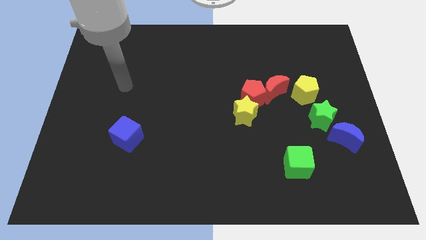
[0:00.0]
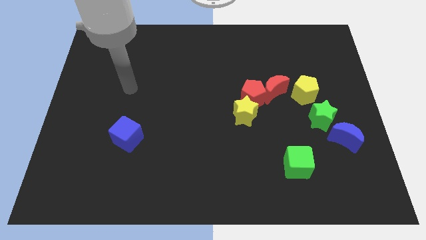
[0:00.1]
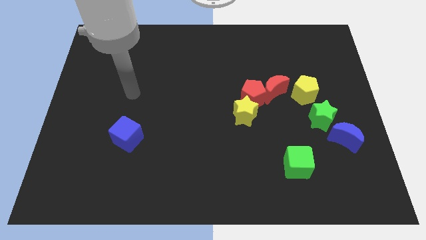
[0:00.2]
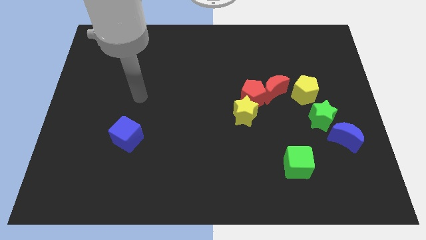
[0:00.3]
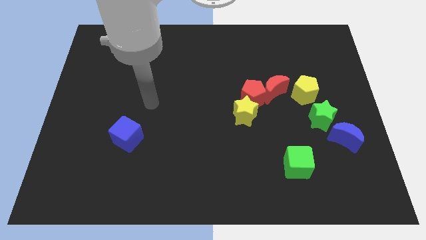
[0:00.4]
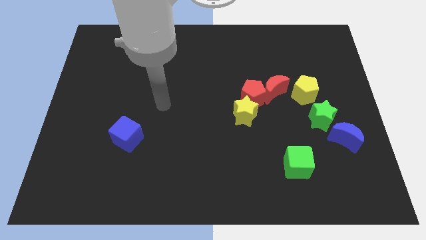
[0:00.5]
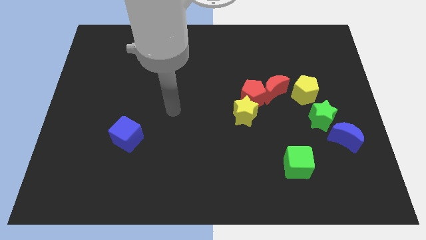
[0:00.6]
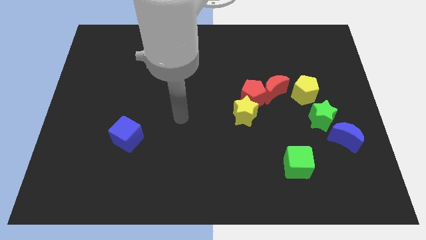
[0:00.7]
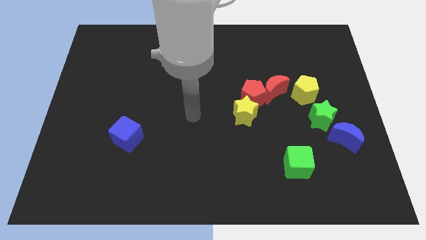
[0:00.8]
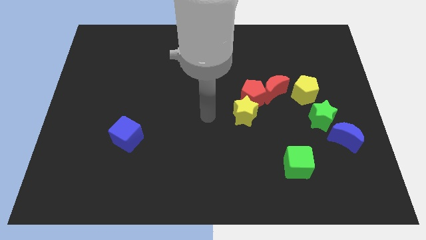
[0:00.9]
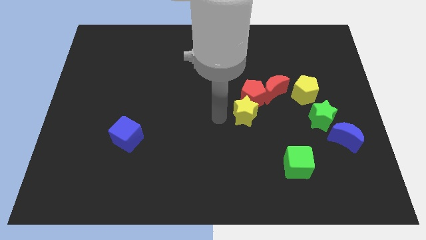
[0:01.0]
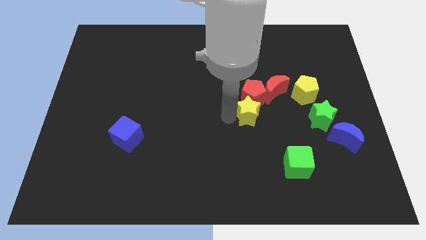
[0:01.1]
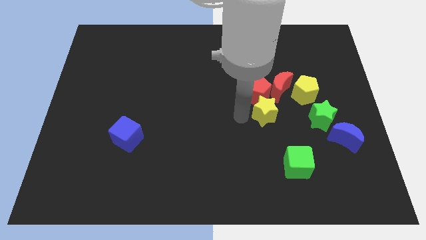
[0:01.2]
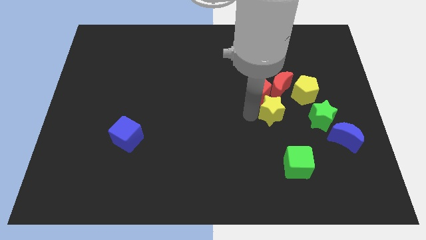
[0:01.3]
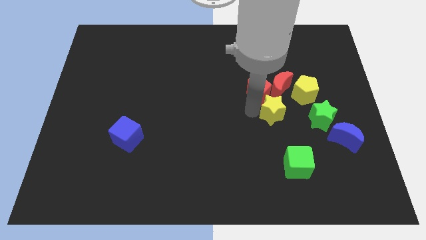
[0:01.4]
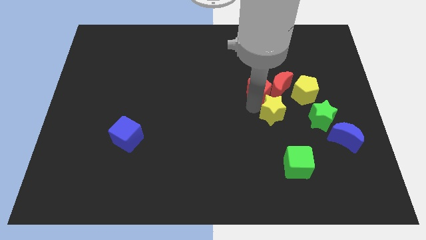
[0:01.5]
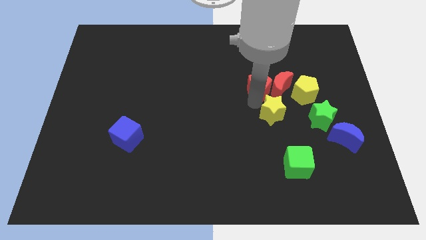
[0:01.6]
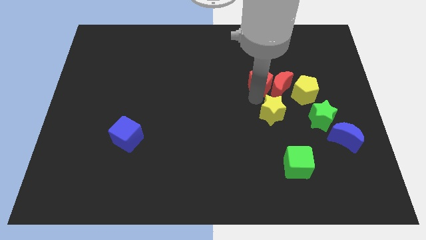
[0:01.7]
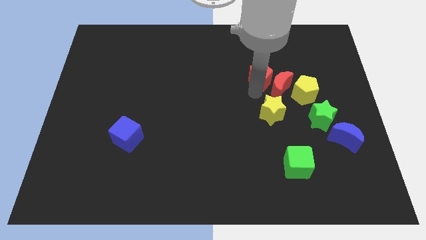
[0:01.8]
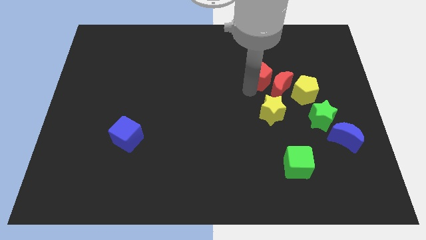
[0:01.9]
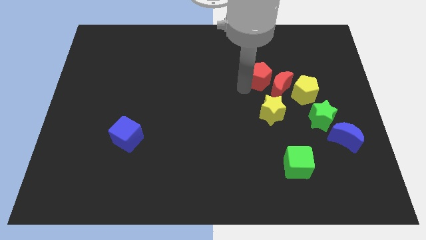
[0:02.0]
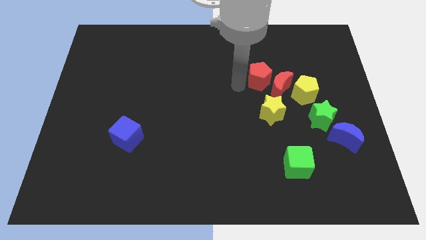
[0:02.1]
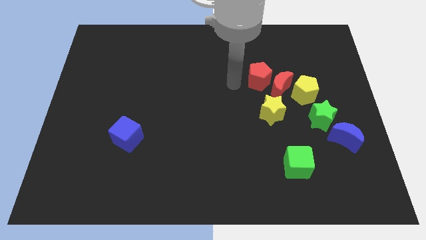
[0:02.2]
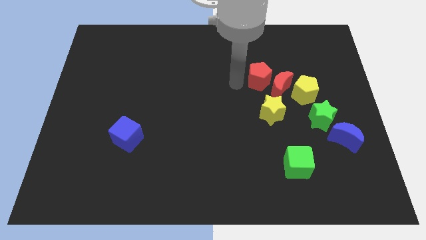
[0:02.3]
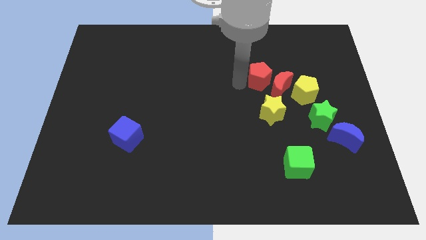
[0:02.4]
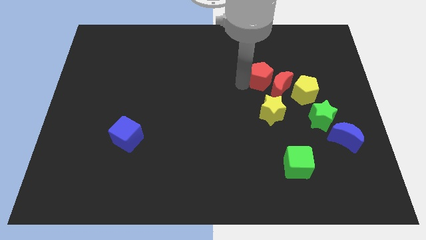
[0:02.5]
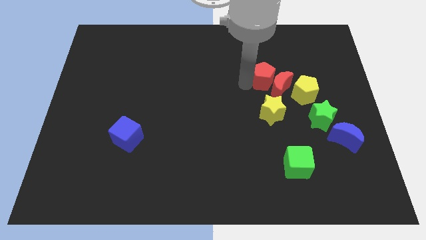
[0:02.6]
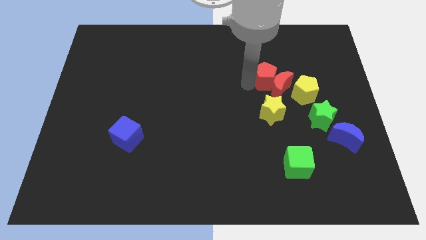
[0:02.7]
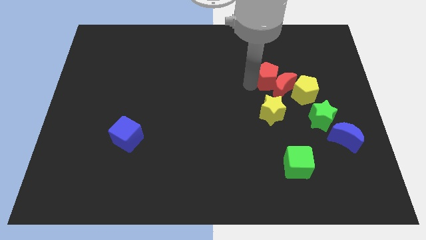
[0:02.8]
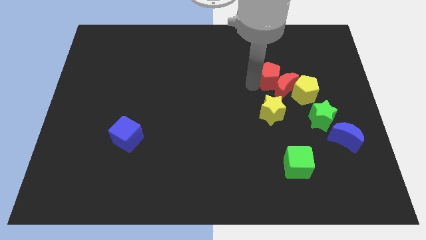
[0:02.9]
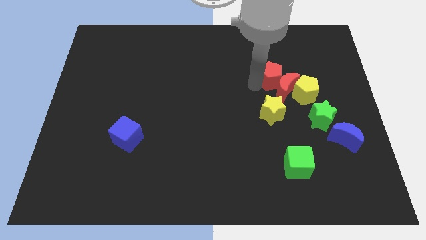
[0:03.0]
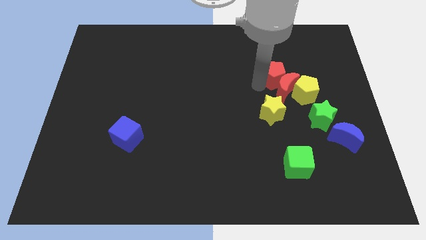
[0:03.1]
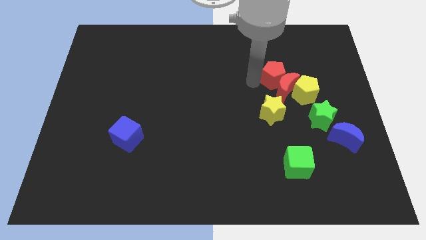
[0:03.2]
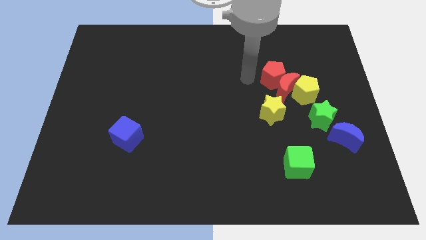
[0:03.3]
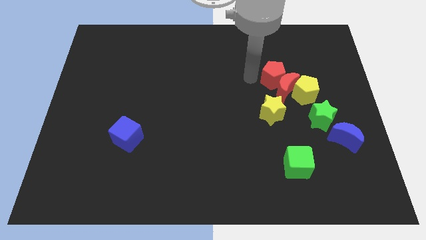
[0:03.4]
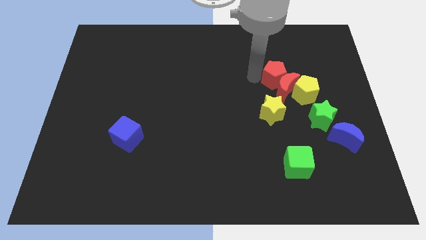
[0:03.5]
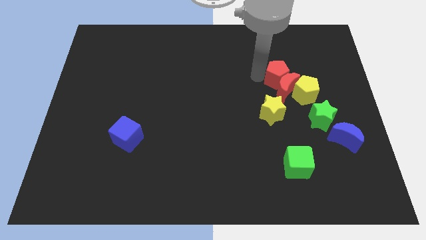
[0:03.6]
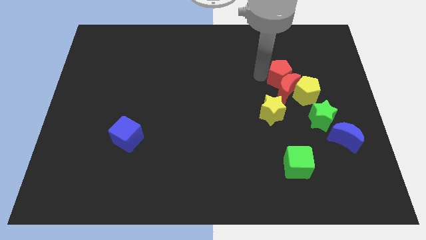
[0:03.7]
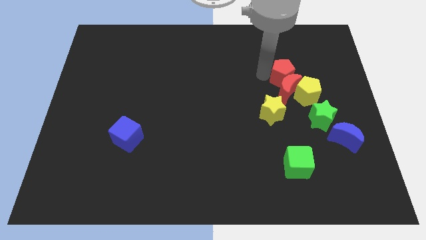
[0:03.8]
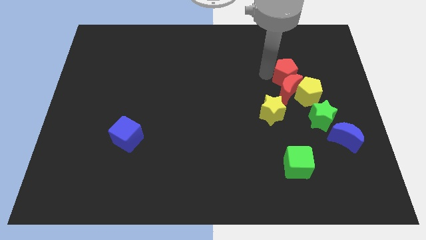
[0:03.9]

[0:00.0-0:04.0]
move the red pentagon a bit right

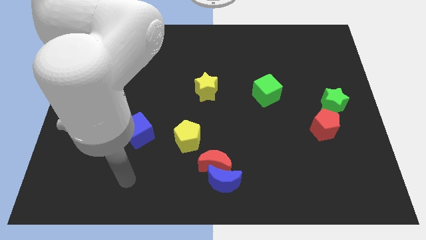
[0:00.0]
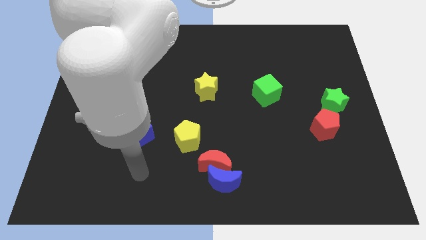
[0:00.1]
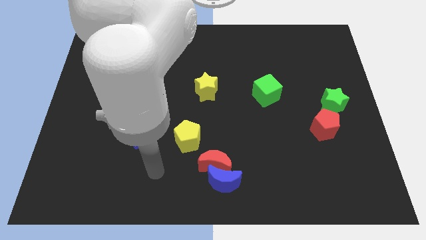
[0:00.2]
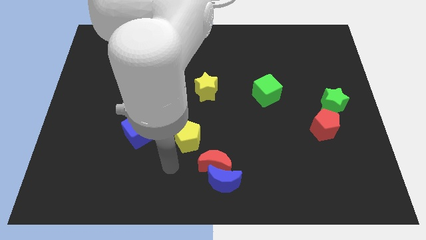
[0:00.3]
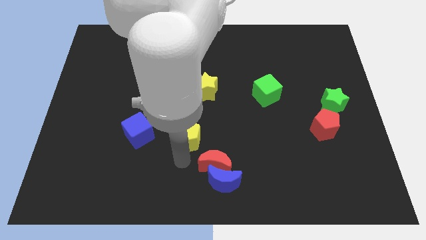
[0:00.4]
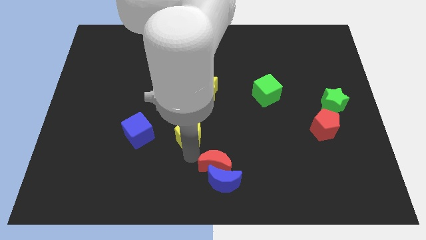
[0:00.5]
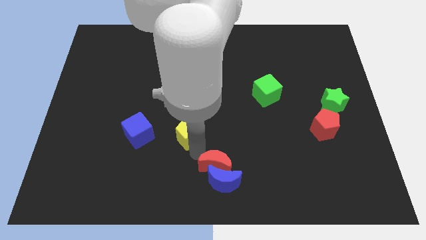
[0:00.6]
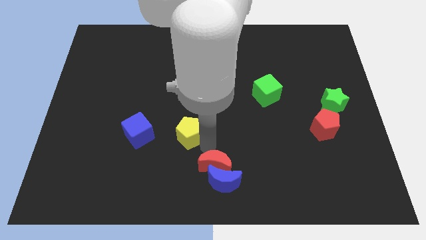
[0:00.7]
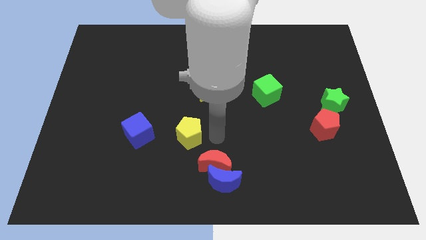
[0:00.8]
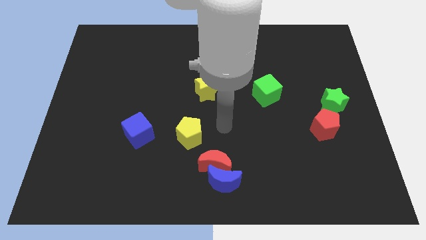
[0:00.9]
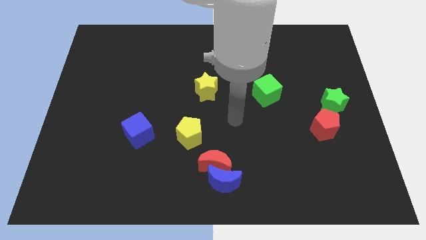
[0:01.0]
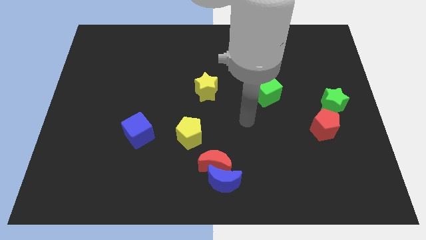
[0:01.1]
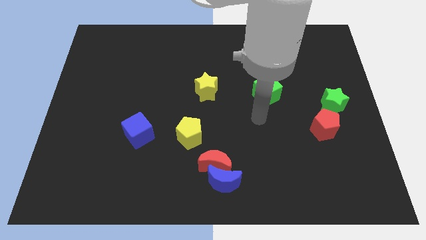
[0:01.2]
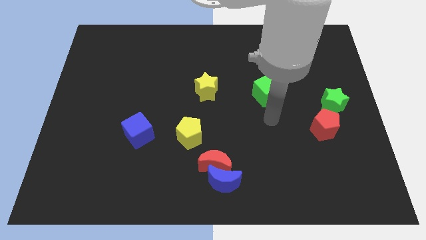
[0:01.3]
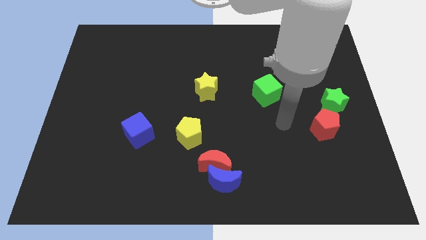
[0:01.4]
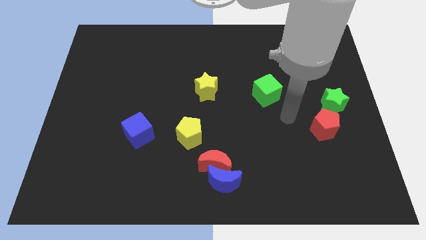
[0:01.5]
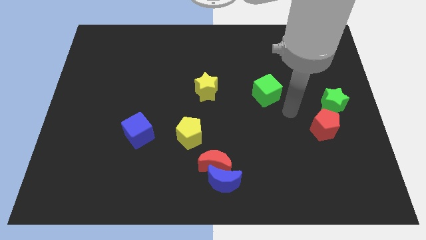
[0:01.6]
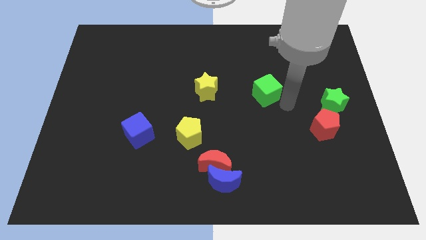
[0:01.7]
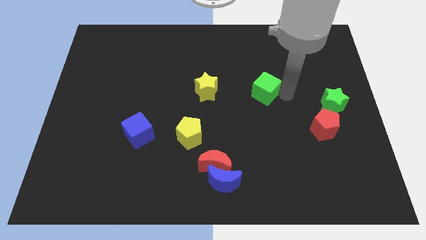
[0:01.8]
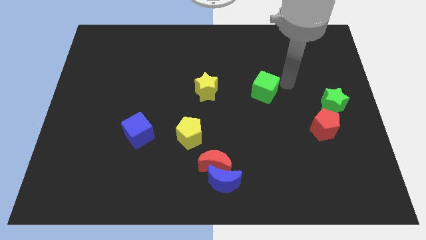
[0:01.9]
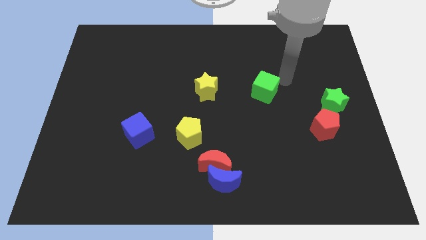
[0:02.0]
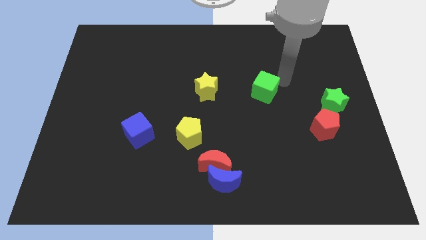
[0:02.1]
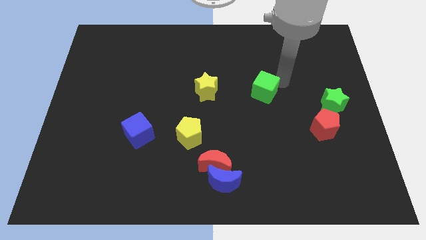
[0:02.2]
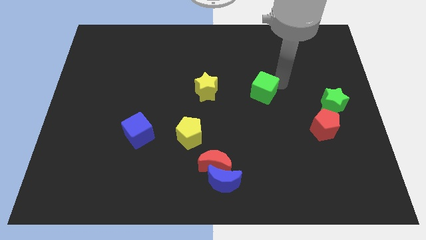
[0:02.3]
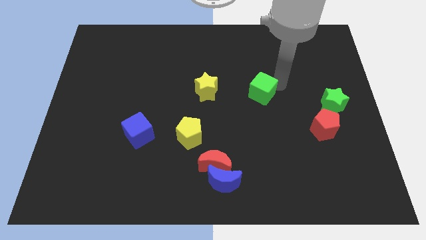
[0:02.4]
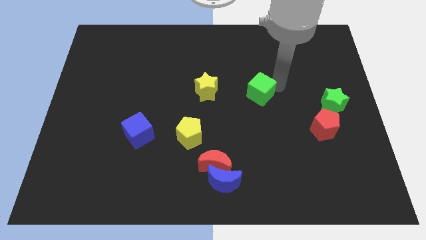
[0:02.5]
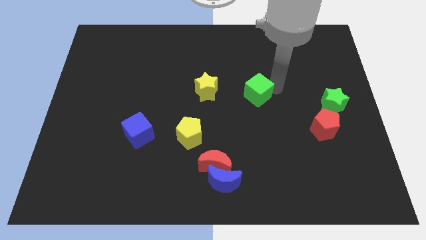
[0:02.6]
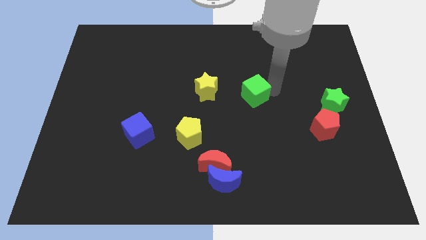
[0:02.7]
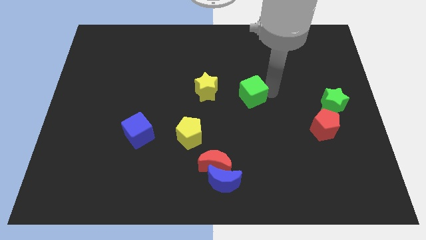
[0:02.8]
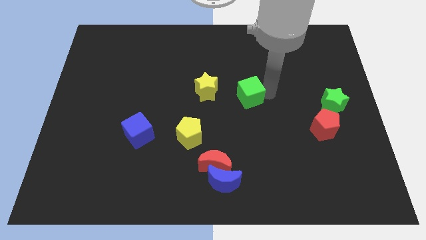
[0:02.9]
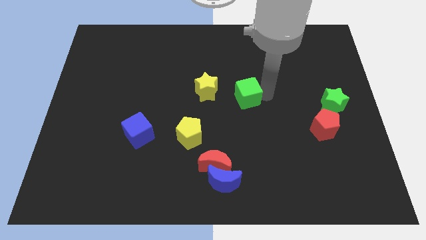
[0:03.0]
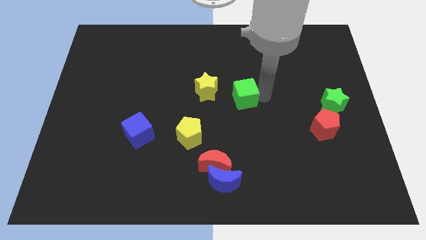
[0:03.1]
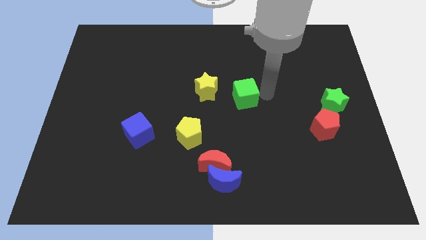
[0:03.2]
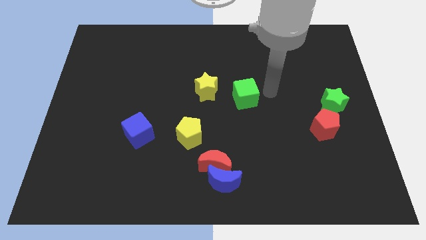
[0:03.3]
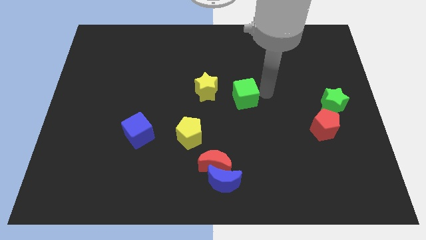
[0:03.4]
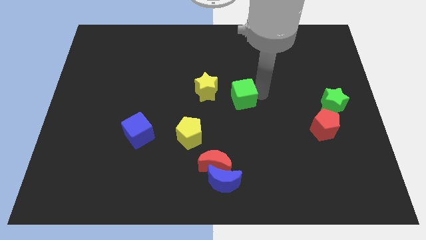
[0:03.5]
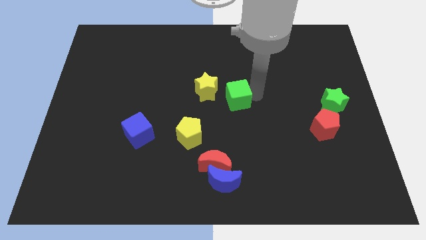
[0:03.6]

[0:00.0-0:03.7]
push the green cube slightly left

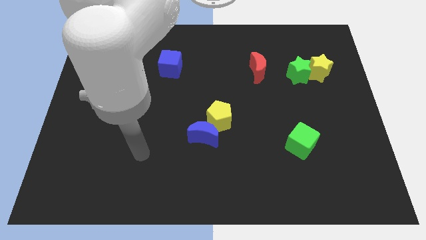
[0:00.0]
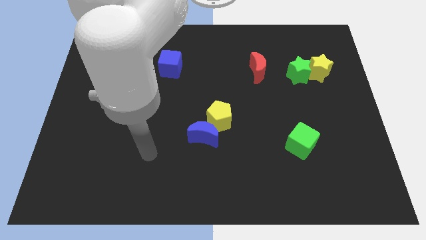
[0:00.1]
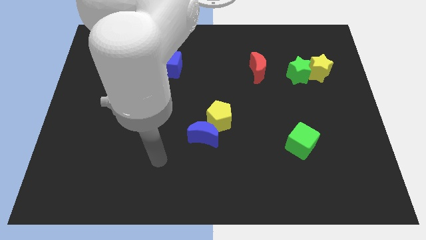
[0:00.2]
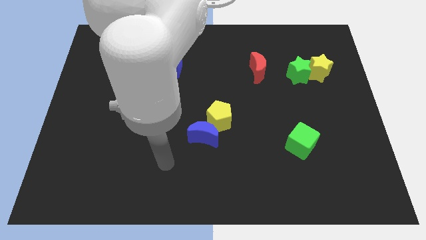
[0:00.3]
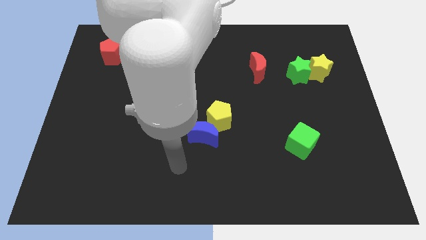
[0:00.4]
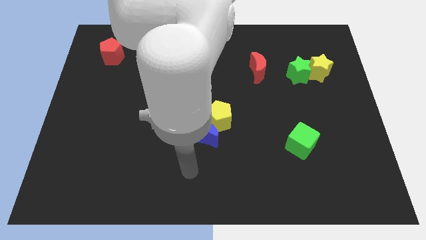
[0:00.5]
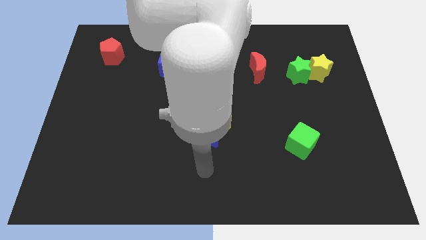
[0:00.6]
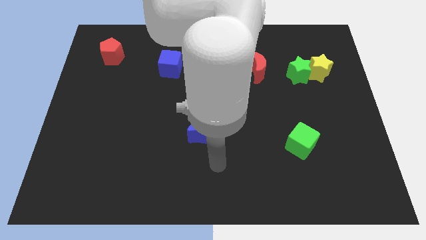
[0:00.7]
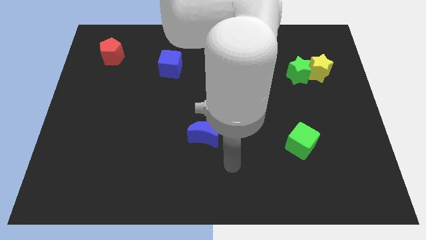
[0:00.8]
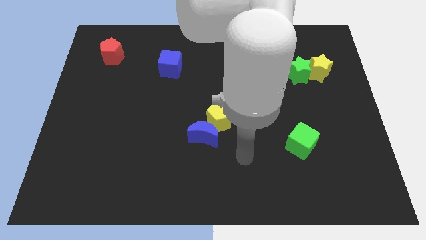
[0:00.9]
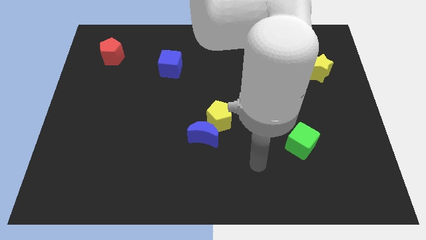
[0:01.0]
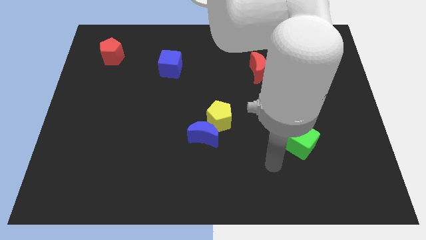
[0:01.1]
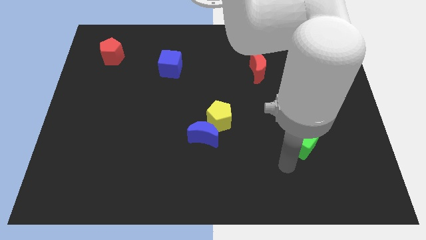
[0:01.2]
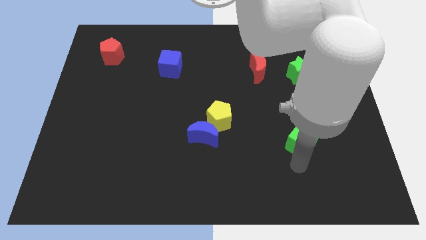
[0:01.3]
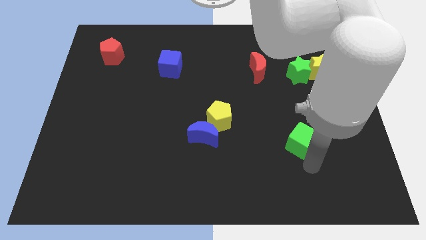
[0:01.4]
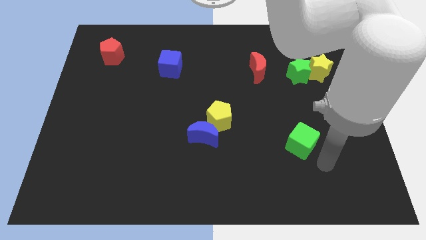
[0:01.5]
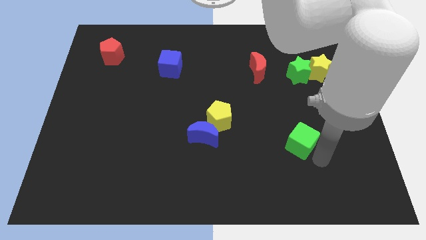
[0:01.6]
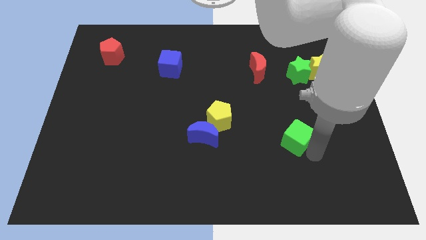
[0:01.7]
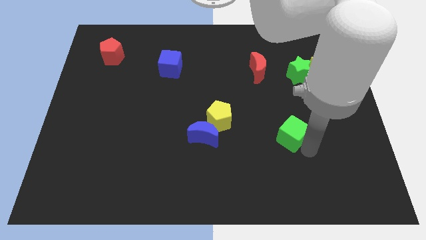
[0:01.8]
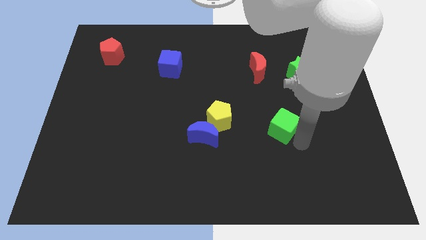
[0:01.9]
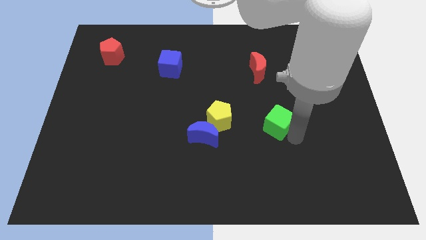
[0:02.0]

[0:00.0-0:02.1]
move the green cube somewhat upwards and to the left
